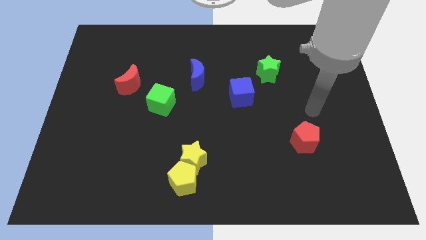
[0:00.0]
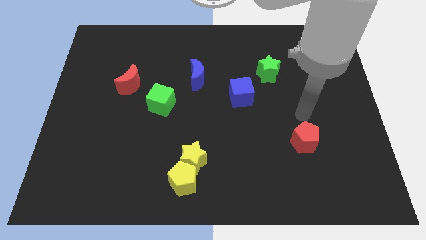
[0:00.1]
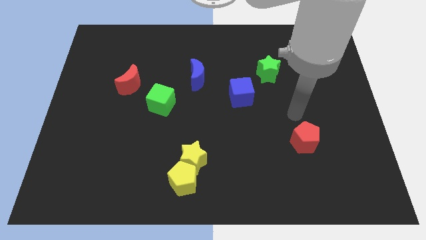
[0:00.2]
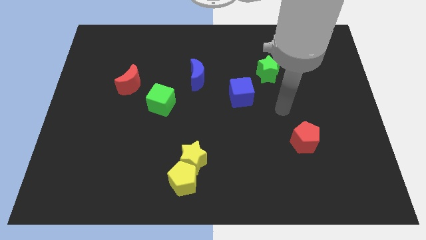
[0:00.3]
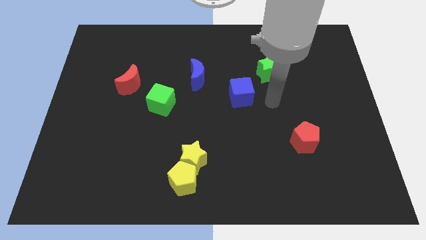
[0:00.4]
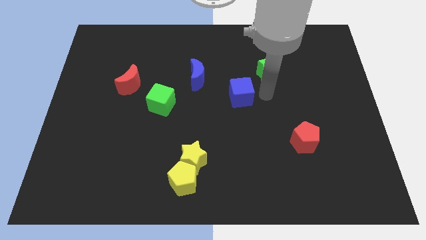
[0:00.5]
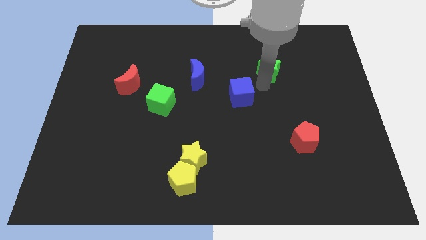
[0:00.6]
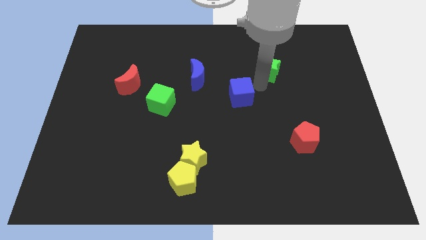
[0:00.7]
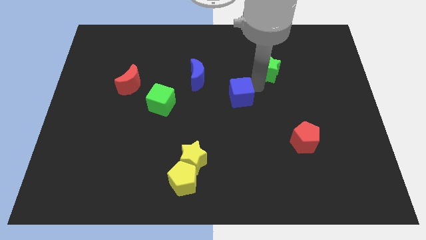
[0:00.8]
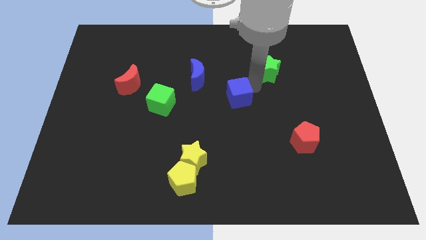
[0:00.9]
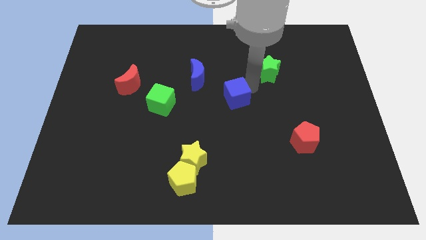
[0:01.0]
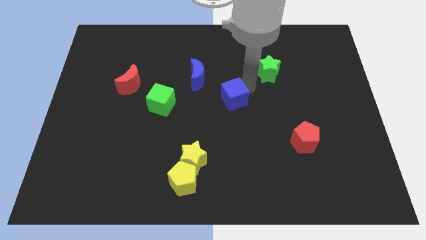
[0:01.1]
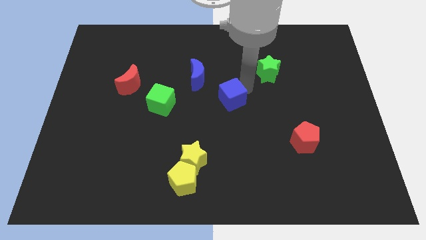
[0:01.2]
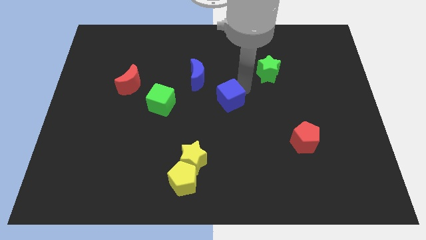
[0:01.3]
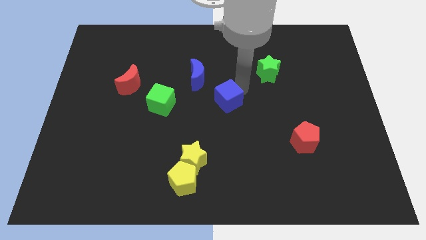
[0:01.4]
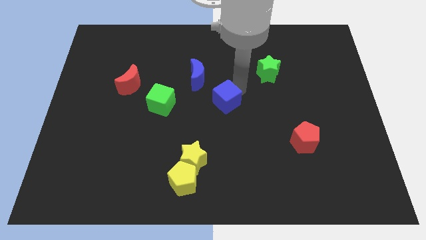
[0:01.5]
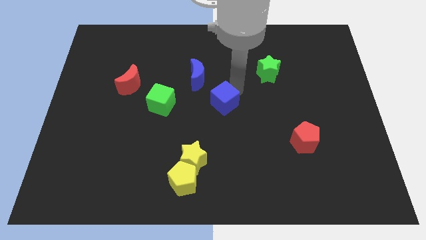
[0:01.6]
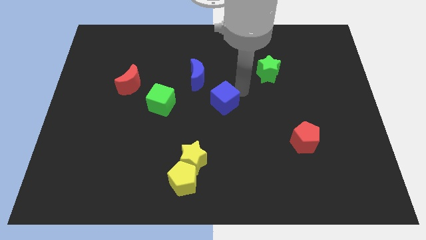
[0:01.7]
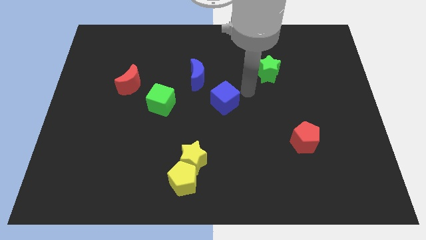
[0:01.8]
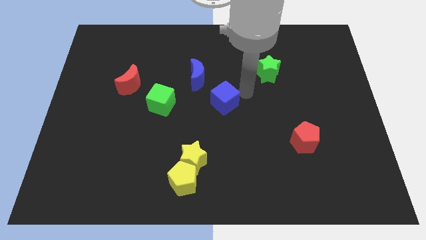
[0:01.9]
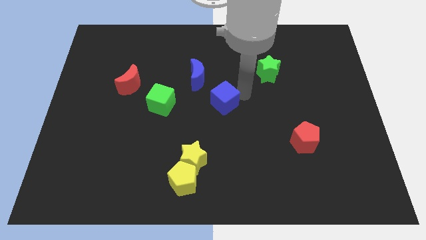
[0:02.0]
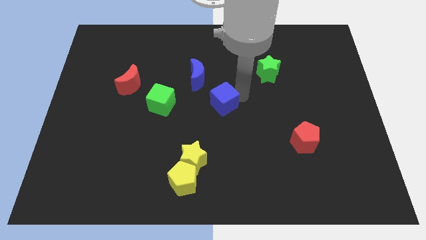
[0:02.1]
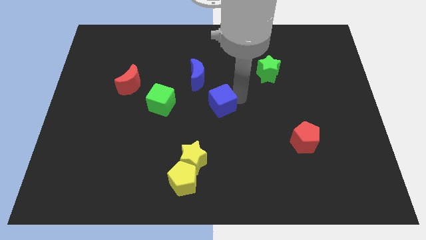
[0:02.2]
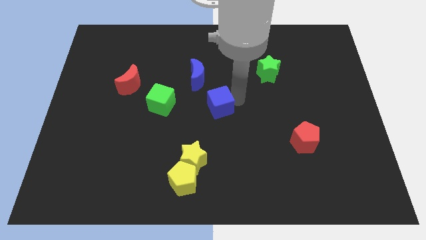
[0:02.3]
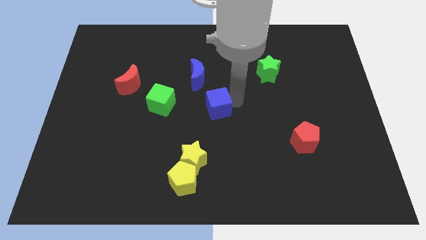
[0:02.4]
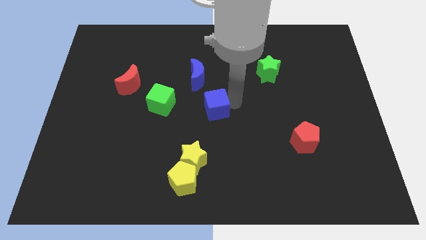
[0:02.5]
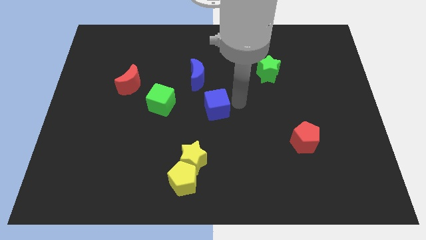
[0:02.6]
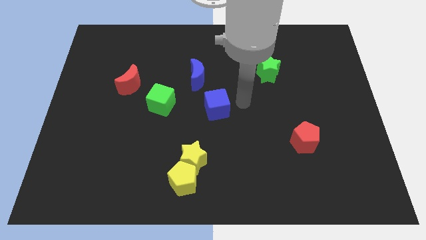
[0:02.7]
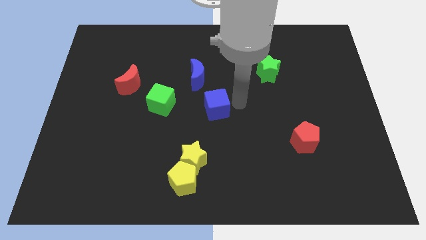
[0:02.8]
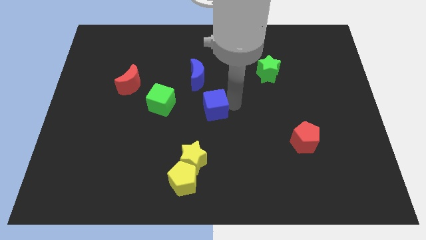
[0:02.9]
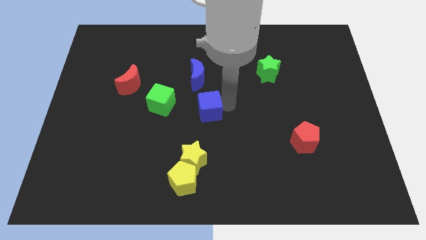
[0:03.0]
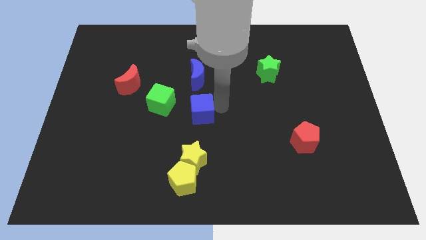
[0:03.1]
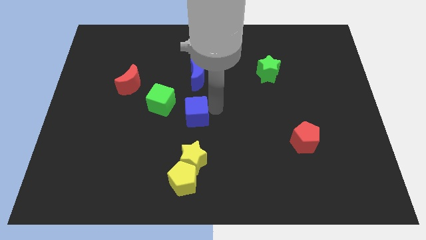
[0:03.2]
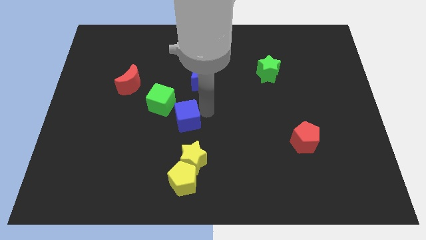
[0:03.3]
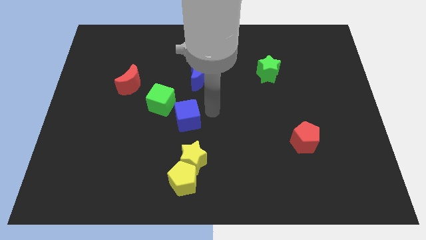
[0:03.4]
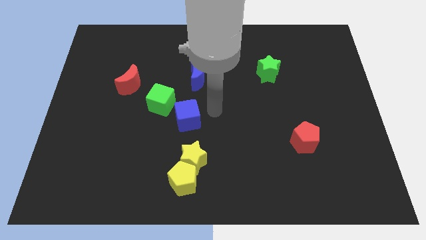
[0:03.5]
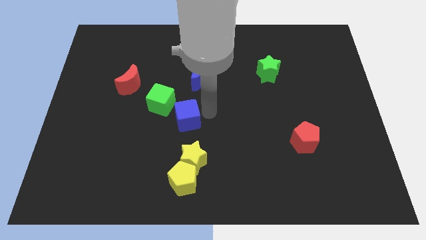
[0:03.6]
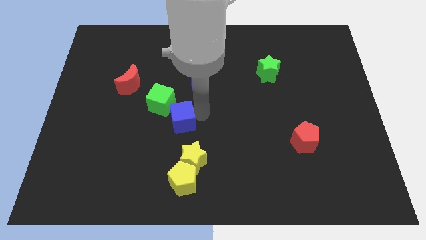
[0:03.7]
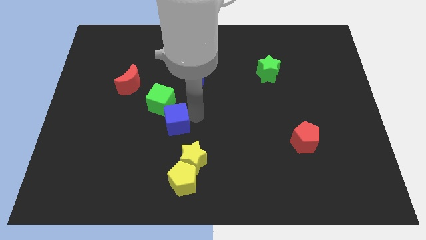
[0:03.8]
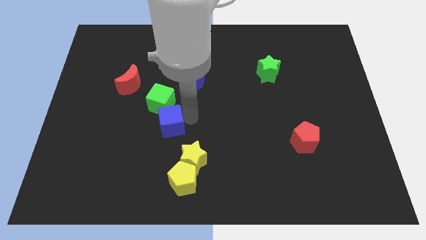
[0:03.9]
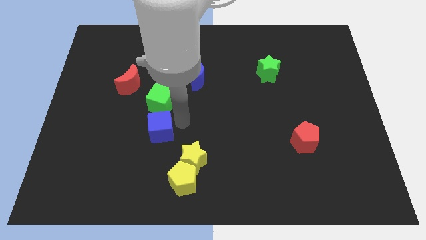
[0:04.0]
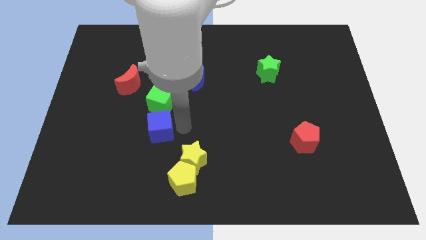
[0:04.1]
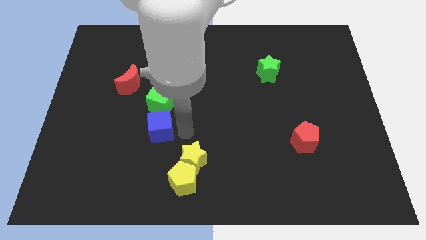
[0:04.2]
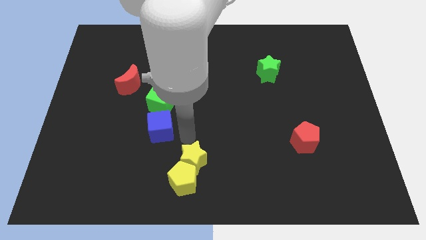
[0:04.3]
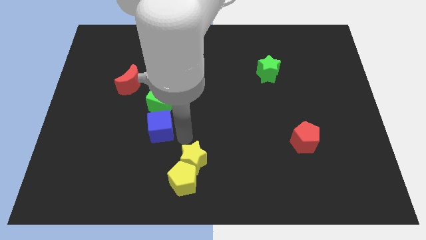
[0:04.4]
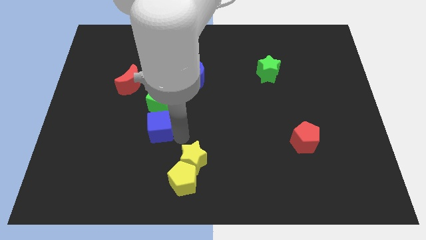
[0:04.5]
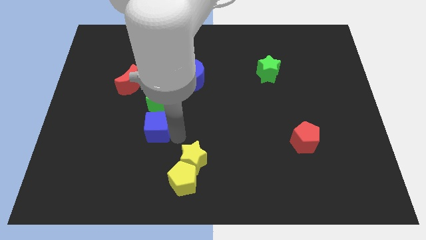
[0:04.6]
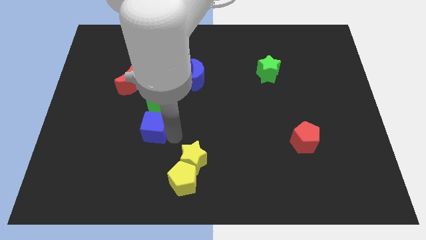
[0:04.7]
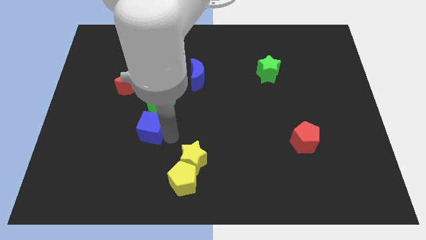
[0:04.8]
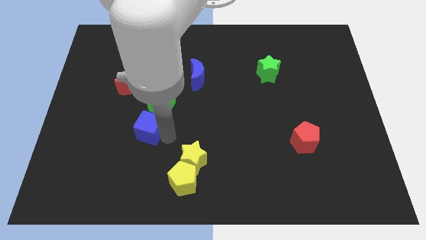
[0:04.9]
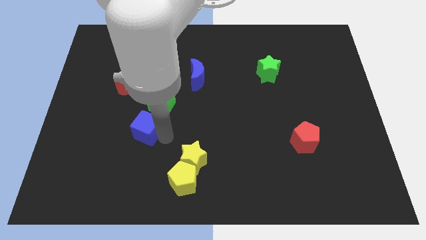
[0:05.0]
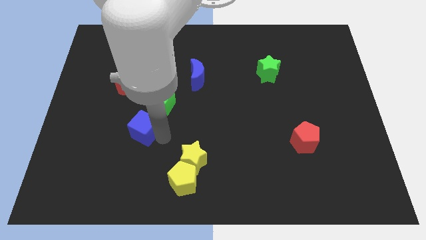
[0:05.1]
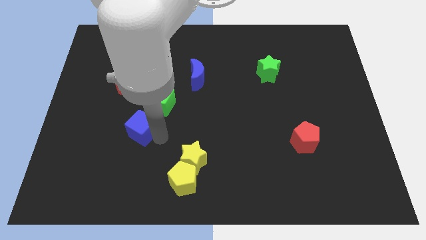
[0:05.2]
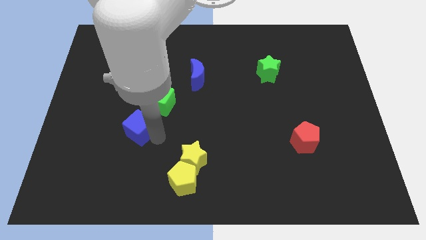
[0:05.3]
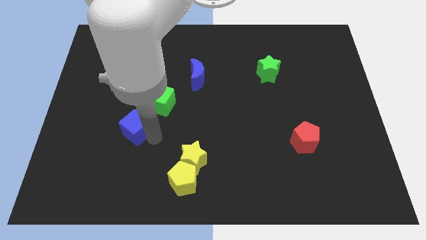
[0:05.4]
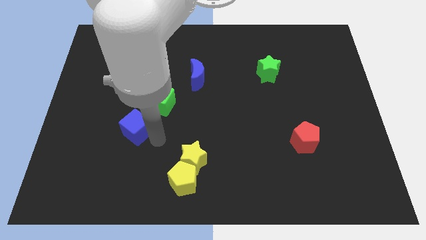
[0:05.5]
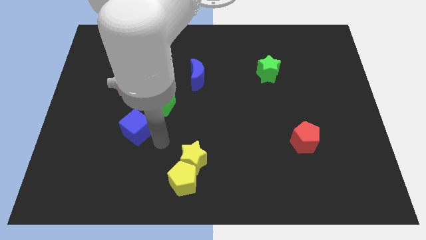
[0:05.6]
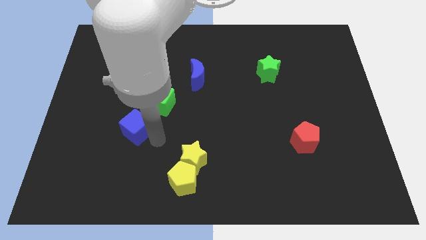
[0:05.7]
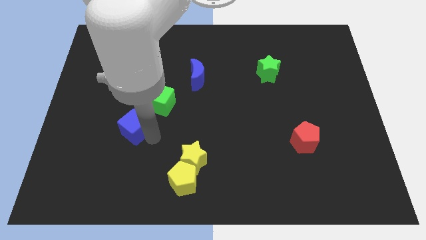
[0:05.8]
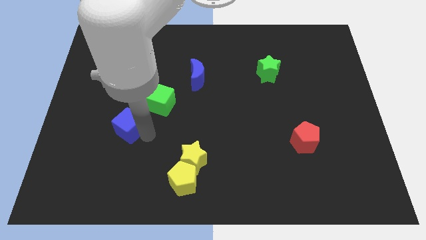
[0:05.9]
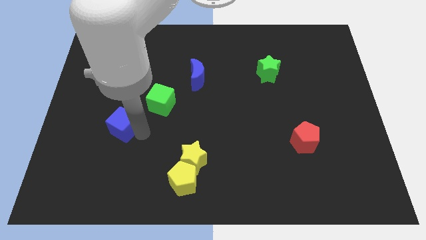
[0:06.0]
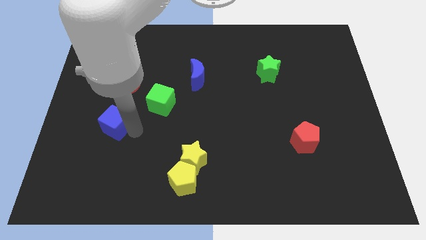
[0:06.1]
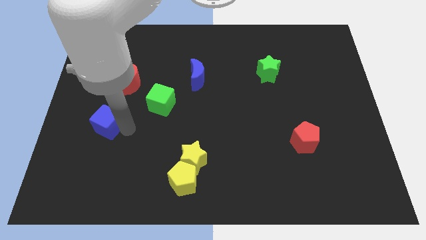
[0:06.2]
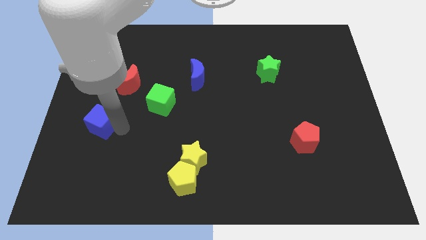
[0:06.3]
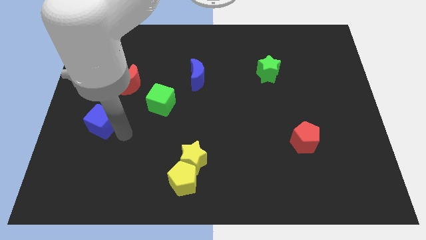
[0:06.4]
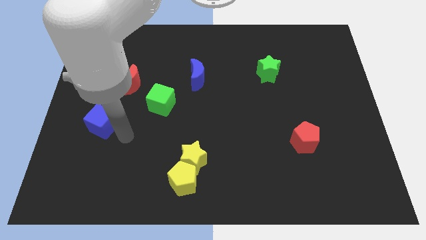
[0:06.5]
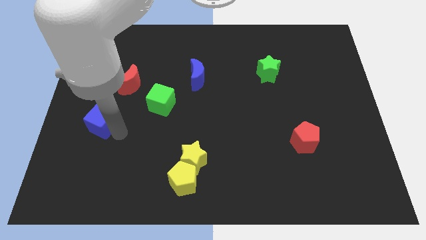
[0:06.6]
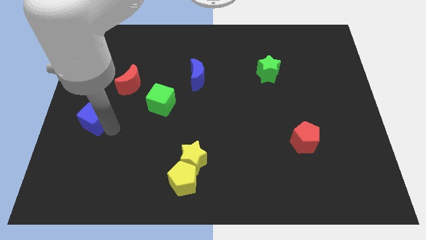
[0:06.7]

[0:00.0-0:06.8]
move the blue cube to the center left
